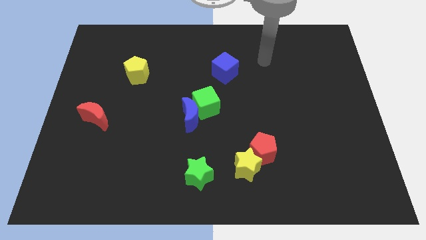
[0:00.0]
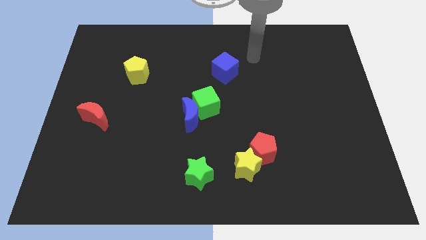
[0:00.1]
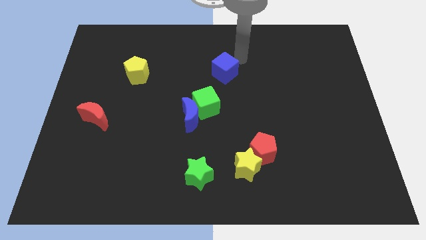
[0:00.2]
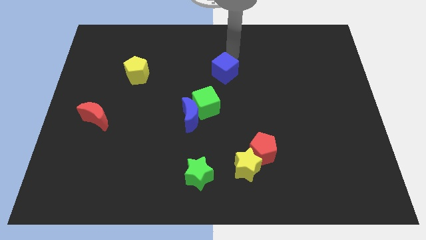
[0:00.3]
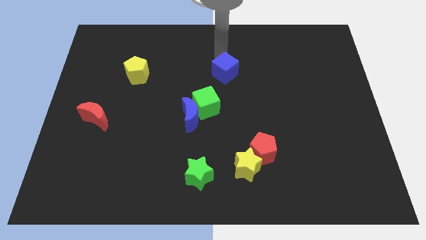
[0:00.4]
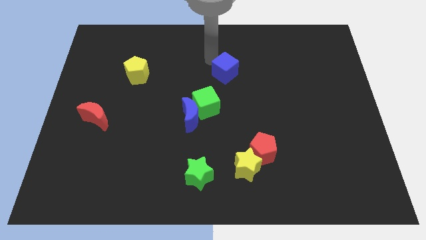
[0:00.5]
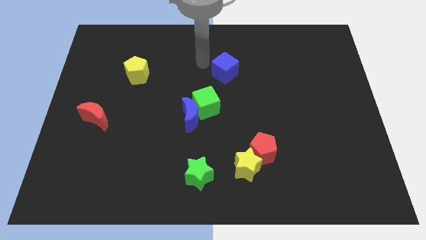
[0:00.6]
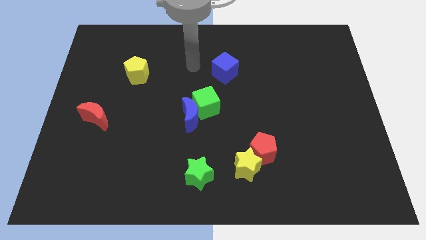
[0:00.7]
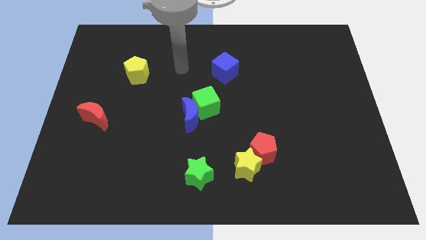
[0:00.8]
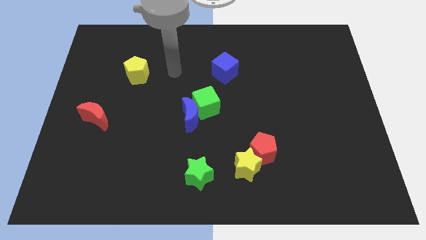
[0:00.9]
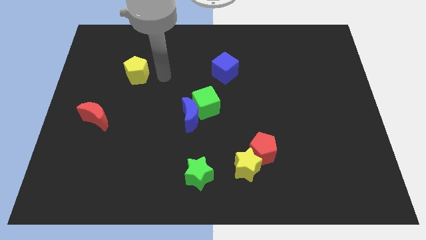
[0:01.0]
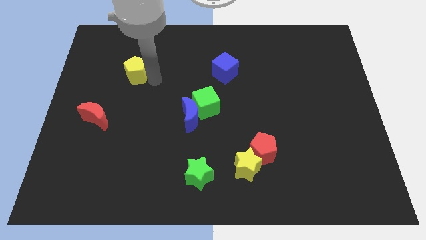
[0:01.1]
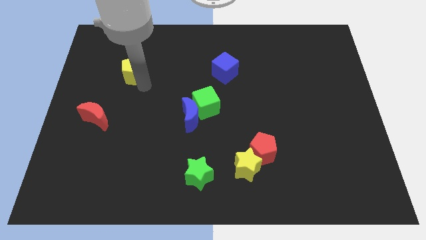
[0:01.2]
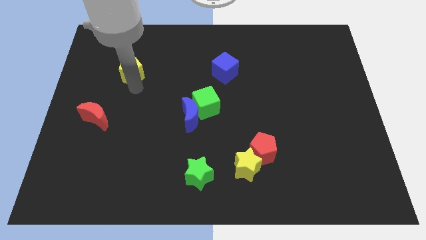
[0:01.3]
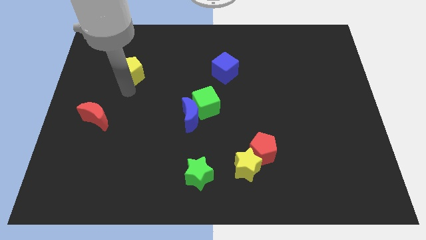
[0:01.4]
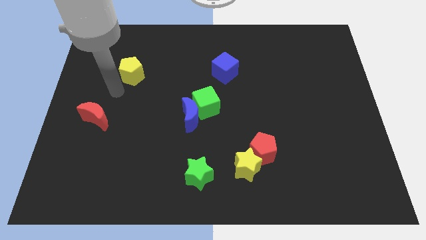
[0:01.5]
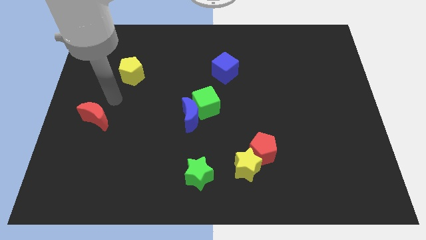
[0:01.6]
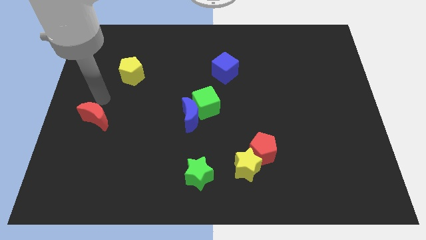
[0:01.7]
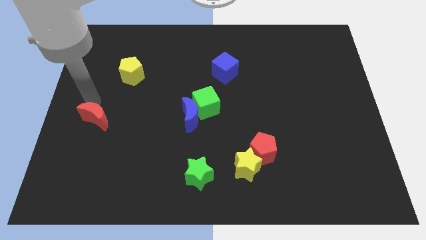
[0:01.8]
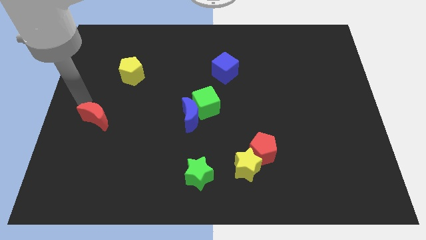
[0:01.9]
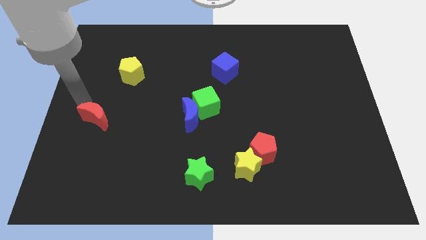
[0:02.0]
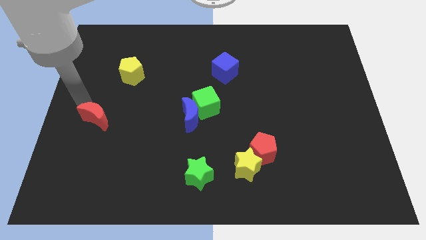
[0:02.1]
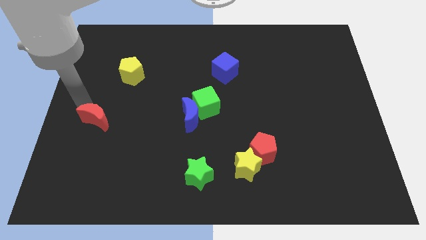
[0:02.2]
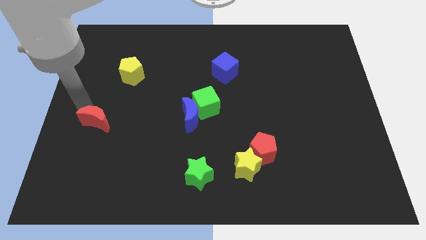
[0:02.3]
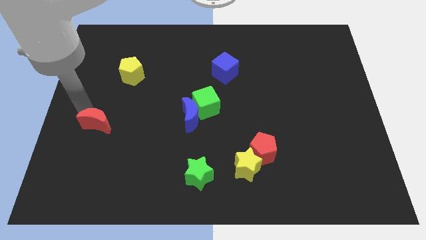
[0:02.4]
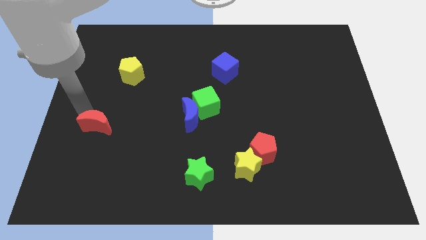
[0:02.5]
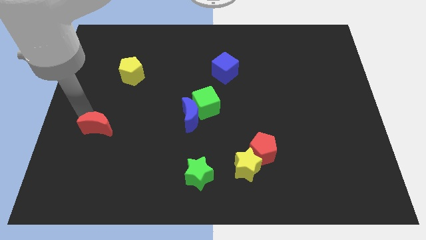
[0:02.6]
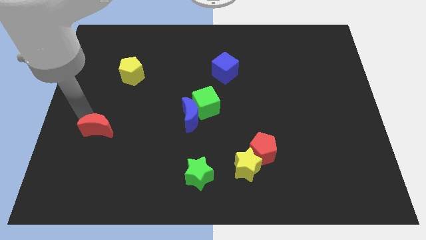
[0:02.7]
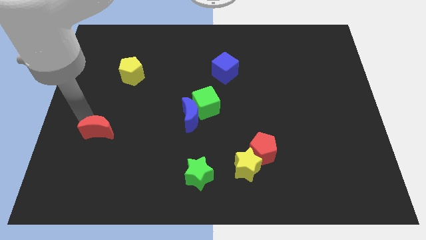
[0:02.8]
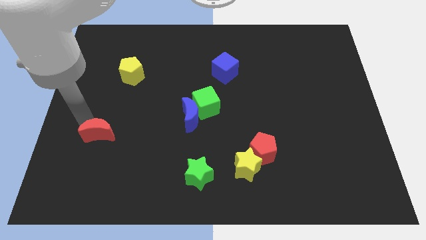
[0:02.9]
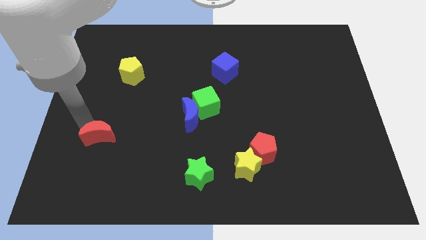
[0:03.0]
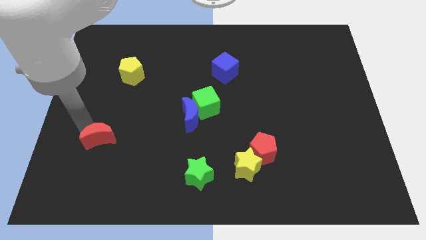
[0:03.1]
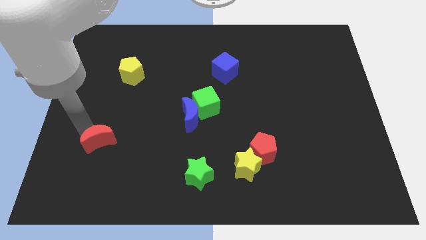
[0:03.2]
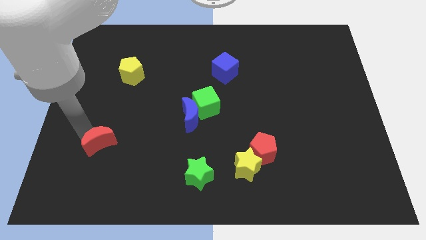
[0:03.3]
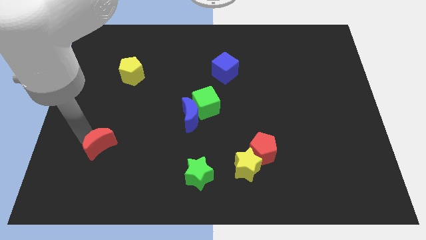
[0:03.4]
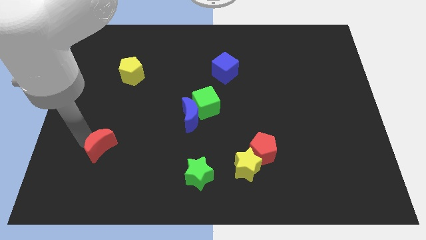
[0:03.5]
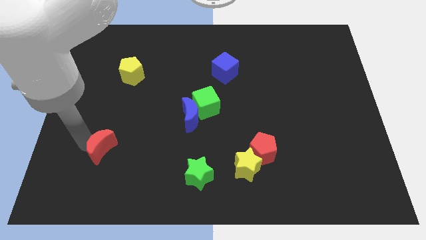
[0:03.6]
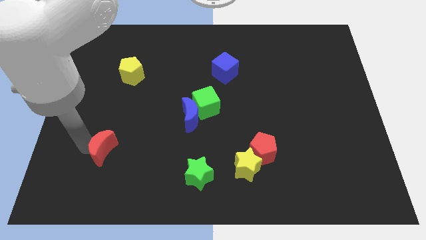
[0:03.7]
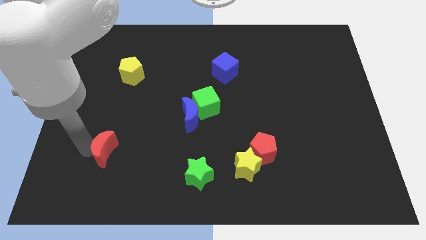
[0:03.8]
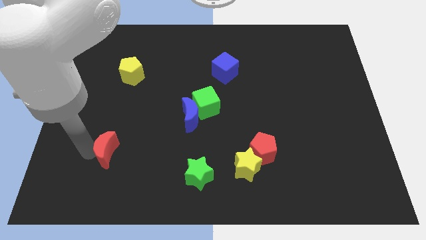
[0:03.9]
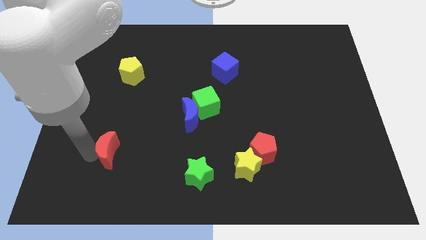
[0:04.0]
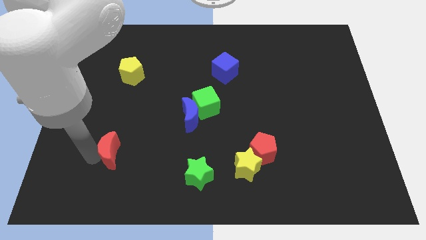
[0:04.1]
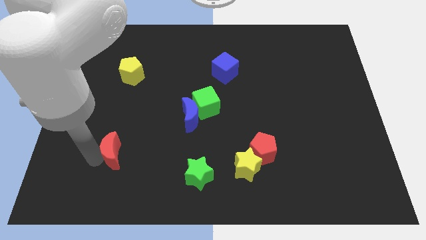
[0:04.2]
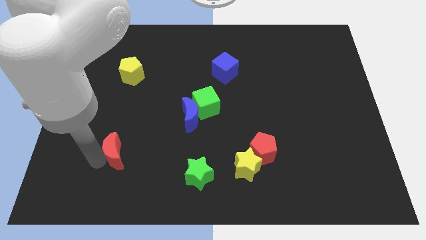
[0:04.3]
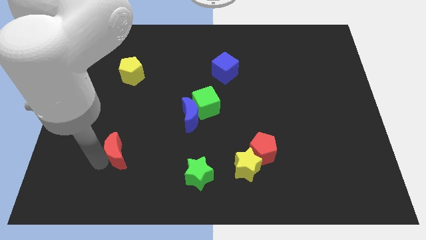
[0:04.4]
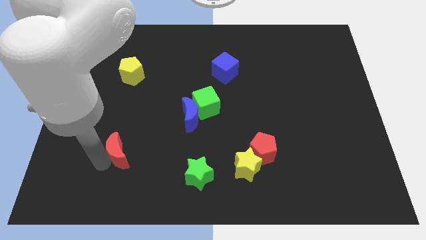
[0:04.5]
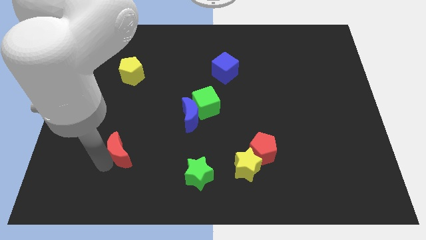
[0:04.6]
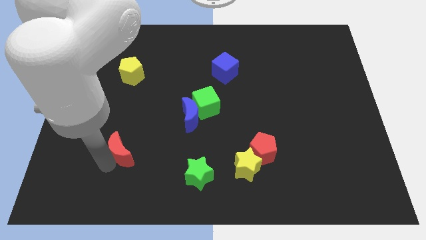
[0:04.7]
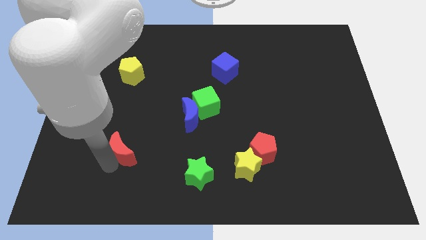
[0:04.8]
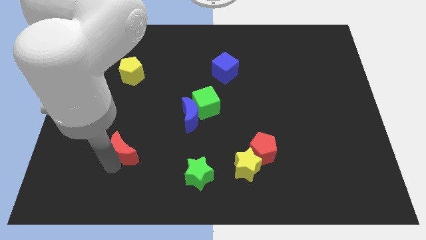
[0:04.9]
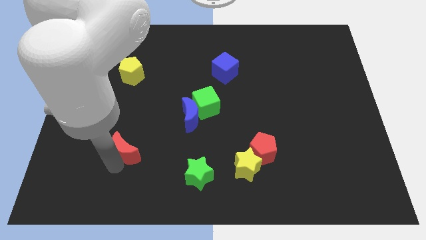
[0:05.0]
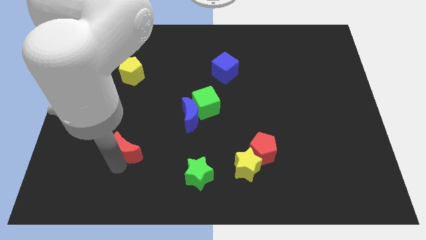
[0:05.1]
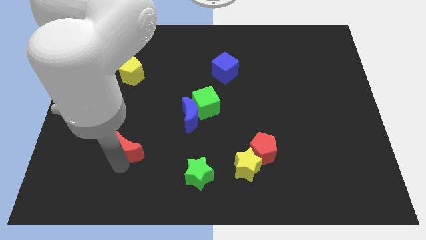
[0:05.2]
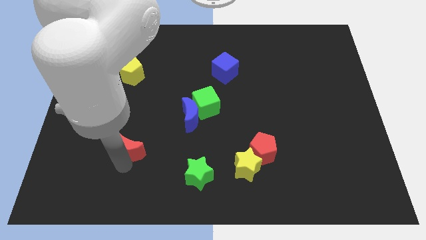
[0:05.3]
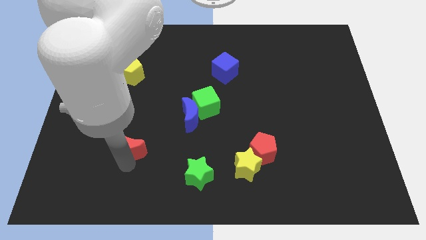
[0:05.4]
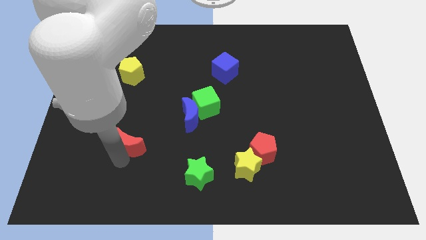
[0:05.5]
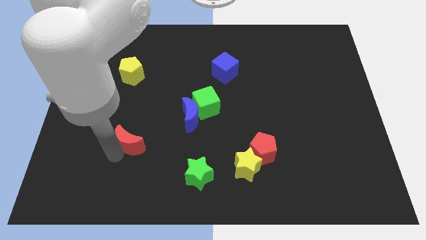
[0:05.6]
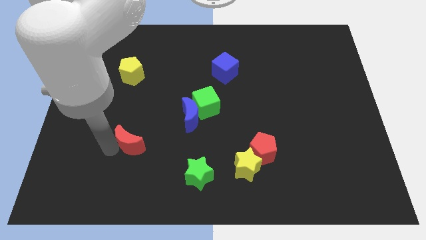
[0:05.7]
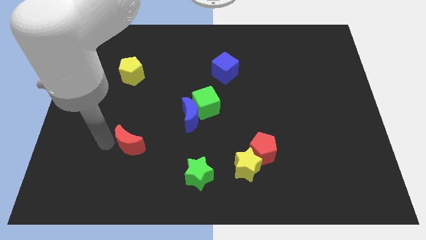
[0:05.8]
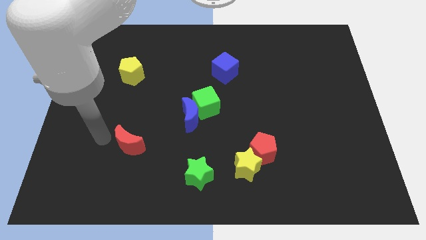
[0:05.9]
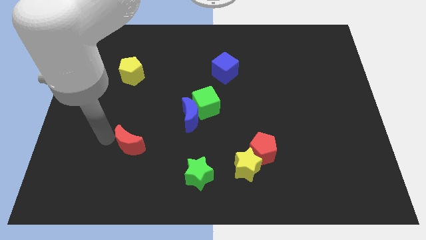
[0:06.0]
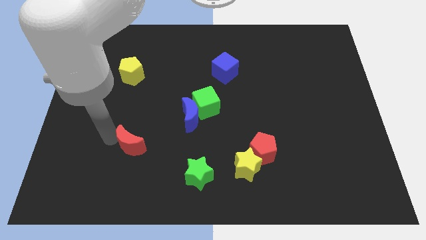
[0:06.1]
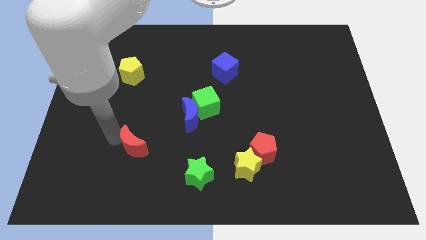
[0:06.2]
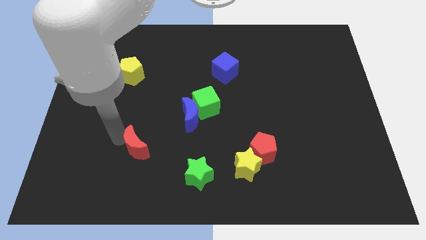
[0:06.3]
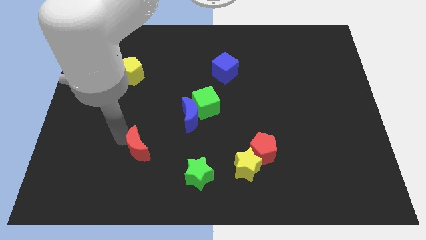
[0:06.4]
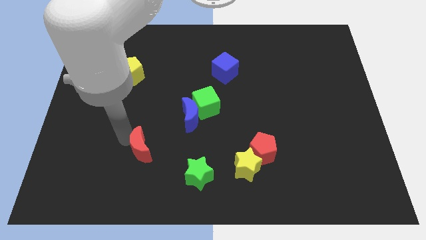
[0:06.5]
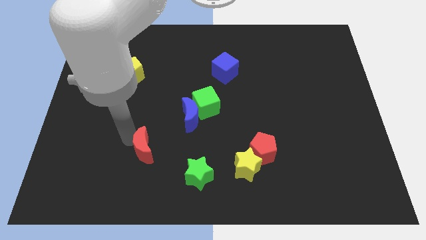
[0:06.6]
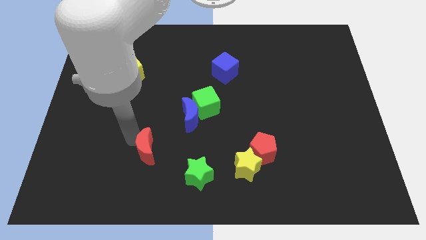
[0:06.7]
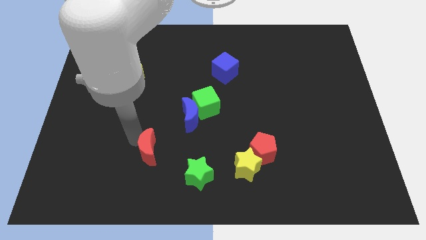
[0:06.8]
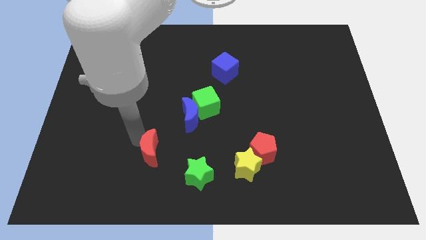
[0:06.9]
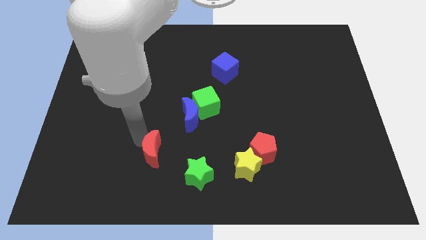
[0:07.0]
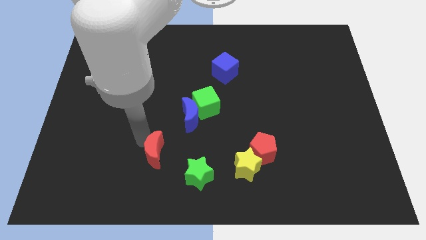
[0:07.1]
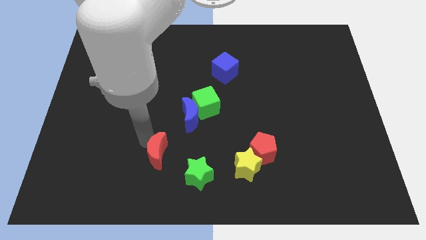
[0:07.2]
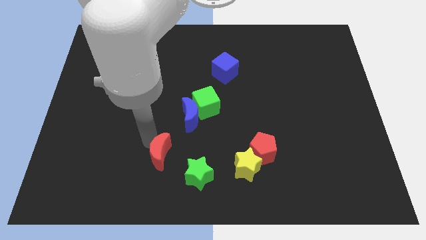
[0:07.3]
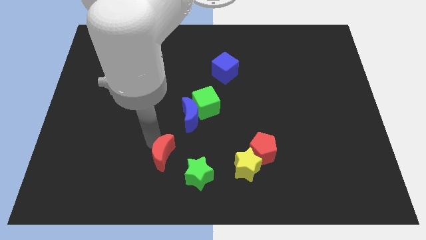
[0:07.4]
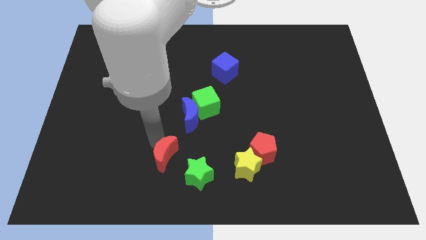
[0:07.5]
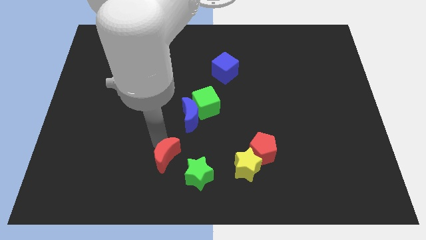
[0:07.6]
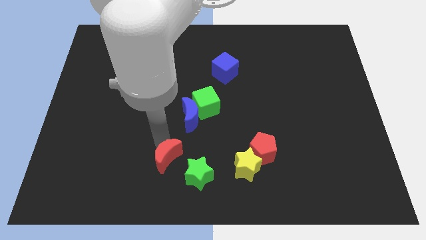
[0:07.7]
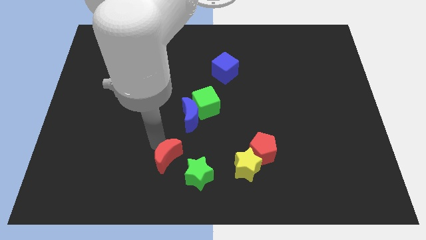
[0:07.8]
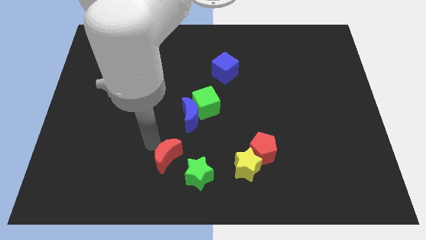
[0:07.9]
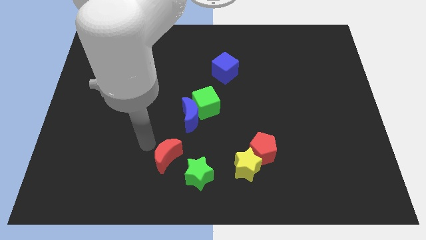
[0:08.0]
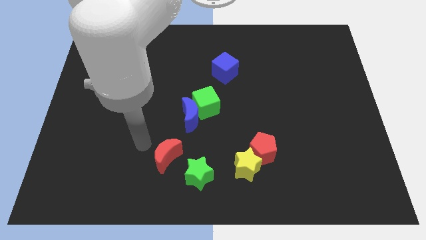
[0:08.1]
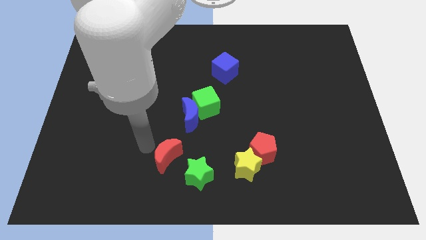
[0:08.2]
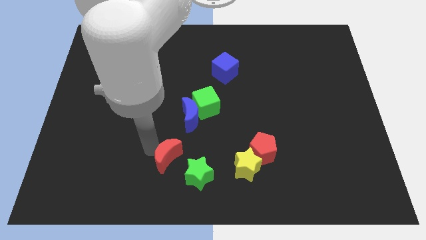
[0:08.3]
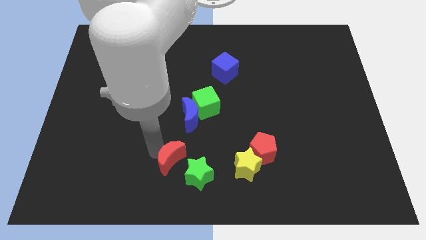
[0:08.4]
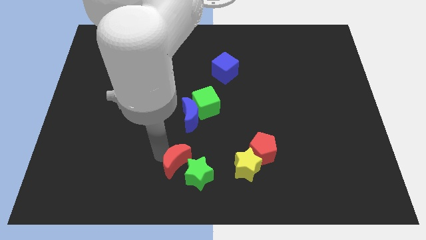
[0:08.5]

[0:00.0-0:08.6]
put the red moon towards the green star
